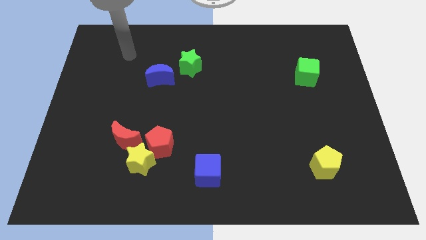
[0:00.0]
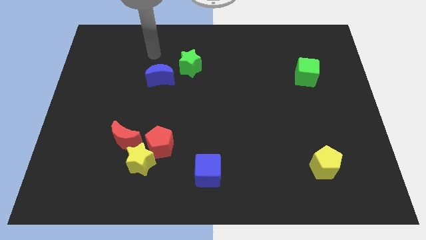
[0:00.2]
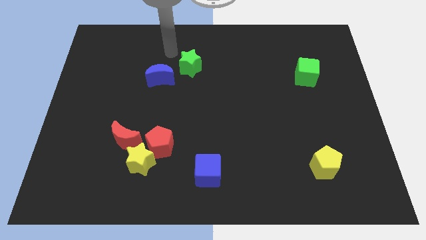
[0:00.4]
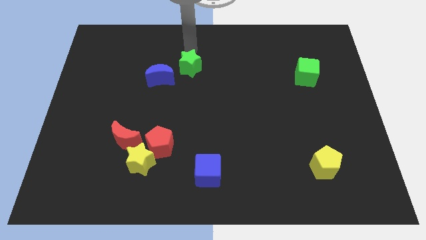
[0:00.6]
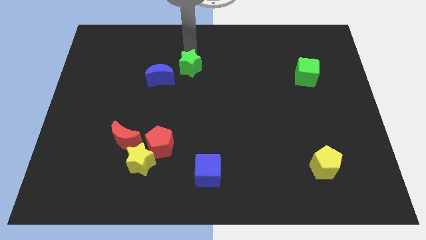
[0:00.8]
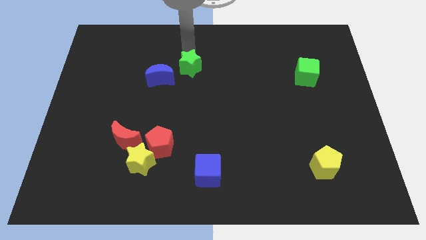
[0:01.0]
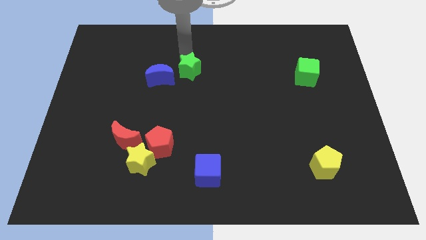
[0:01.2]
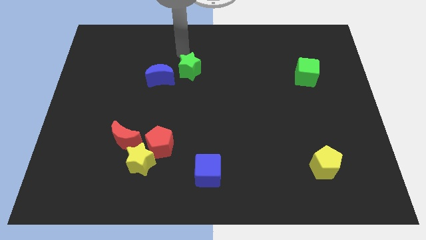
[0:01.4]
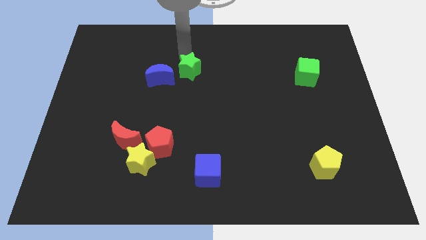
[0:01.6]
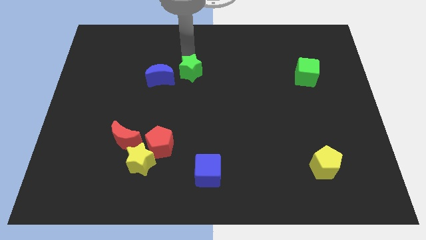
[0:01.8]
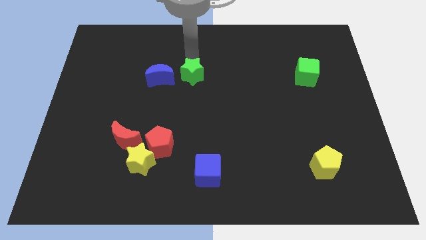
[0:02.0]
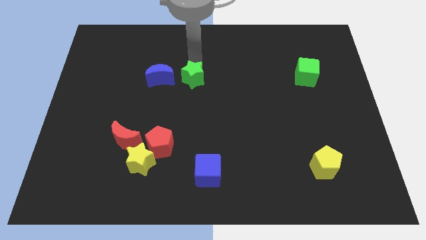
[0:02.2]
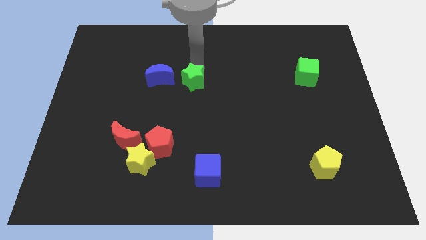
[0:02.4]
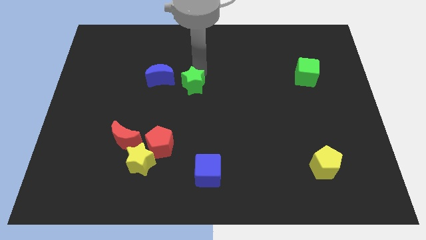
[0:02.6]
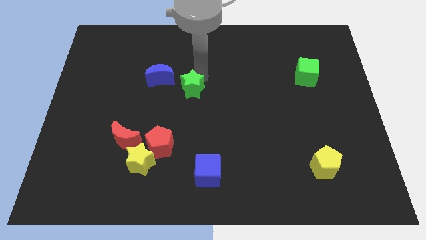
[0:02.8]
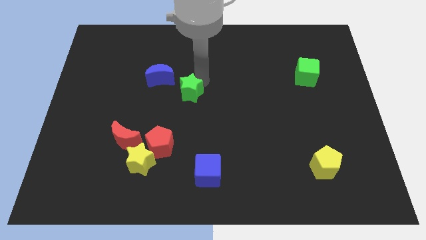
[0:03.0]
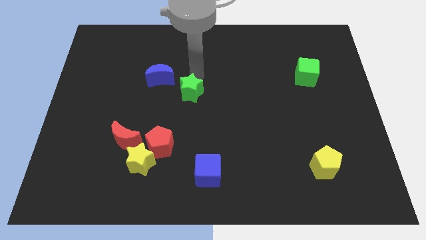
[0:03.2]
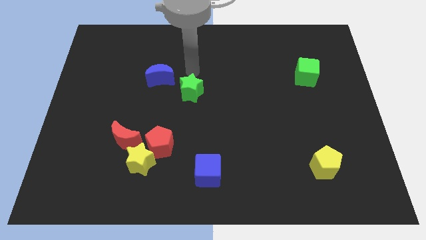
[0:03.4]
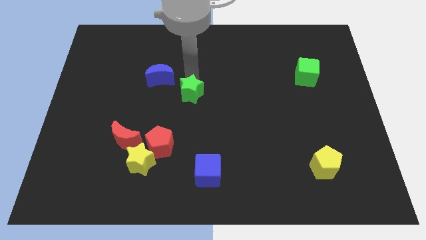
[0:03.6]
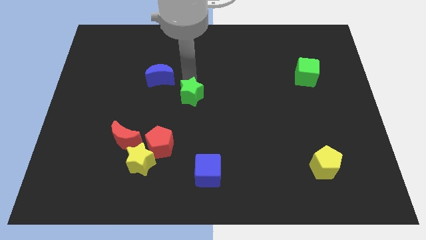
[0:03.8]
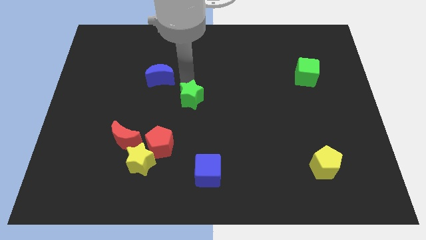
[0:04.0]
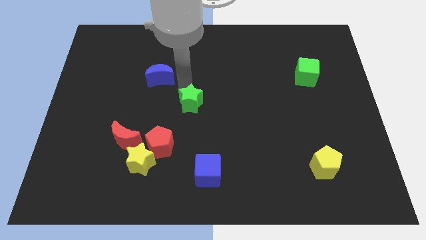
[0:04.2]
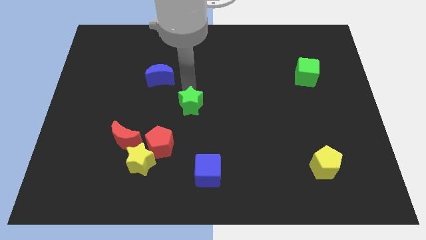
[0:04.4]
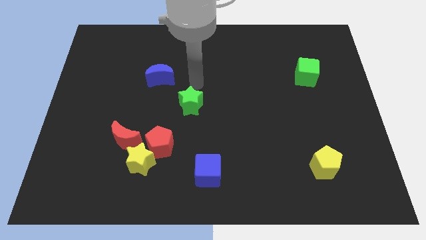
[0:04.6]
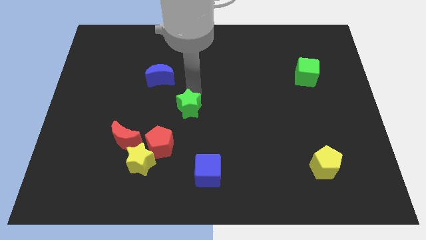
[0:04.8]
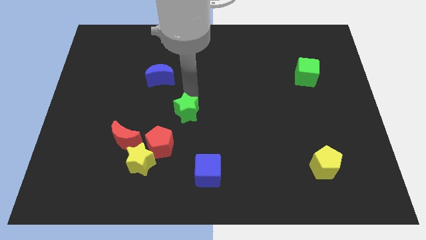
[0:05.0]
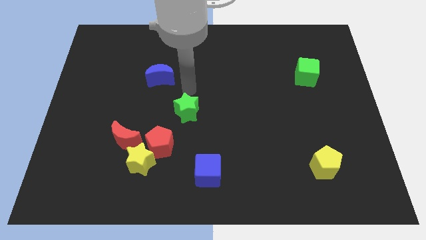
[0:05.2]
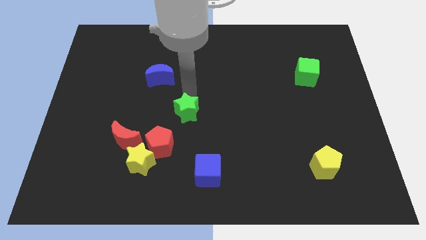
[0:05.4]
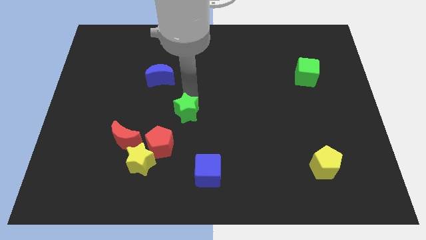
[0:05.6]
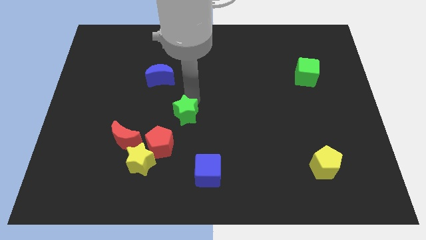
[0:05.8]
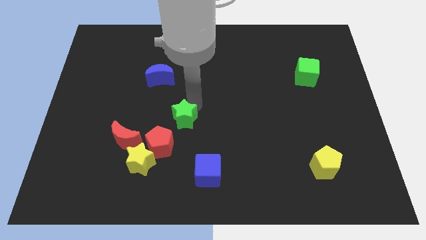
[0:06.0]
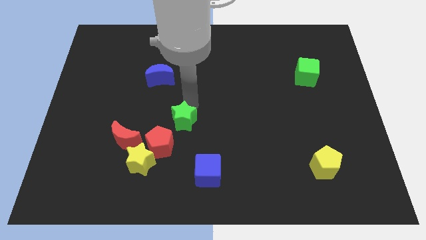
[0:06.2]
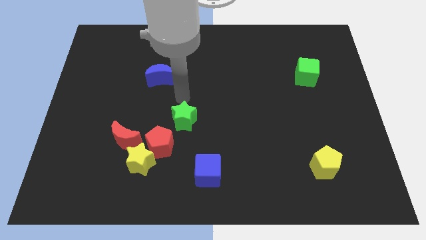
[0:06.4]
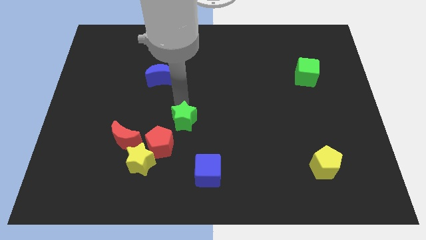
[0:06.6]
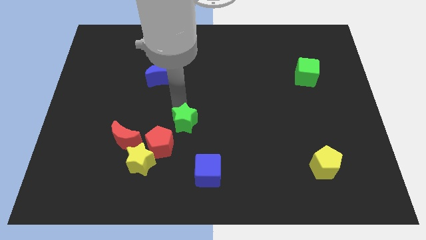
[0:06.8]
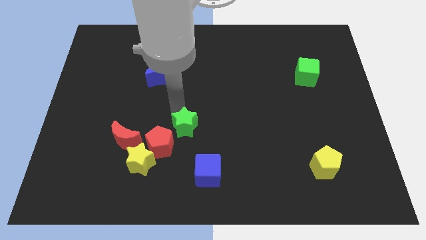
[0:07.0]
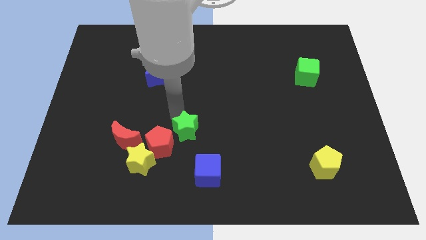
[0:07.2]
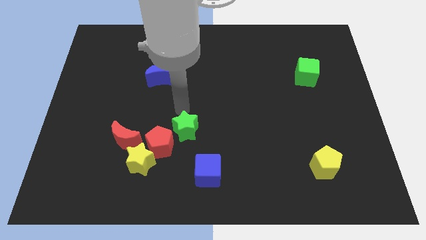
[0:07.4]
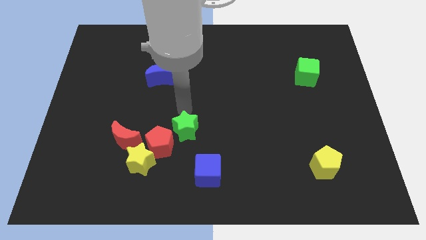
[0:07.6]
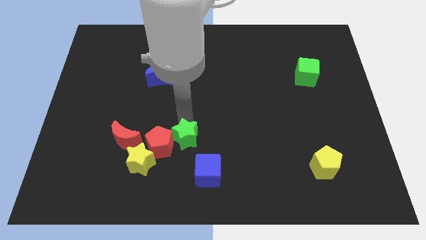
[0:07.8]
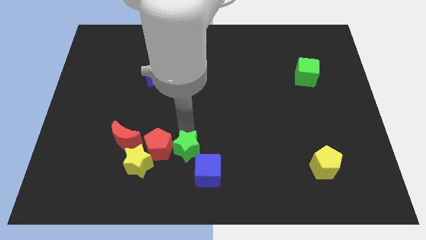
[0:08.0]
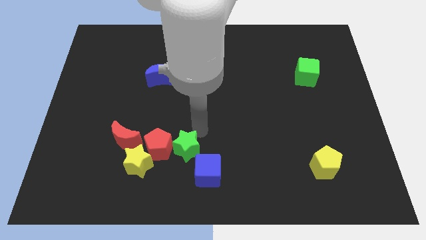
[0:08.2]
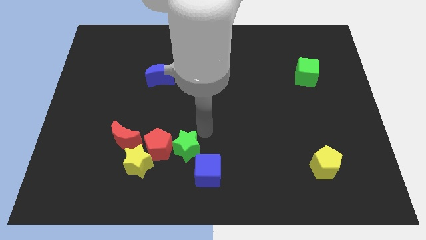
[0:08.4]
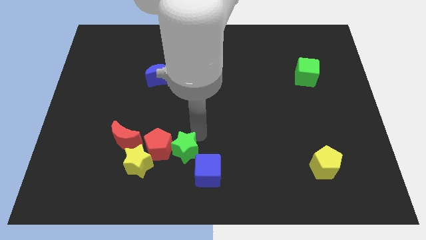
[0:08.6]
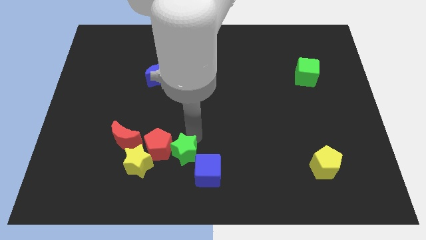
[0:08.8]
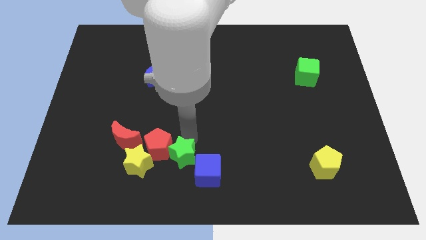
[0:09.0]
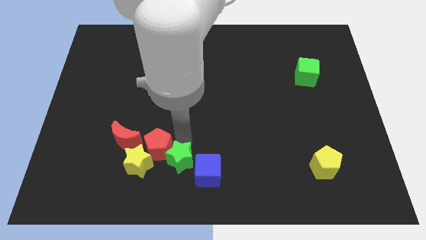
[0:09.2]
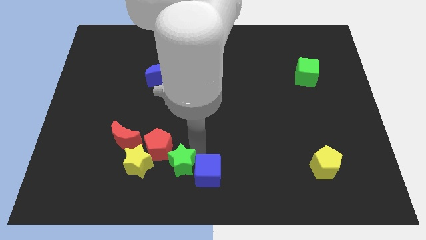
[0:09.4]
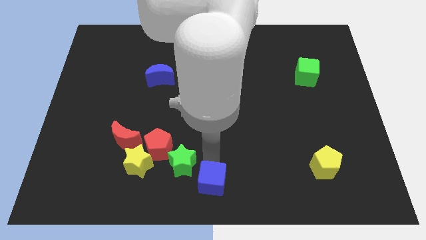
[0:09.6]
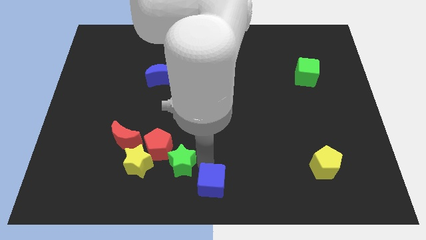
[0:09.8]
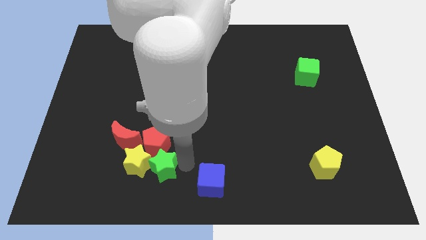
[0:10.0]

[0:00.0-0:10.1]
slide the green star towards the yellow star

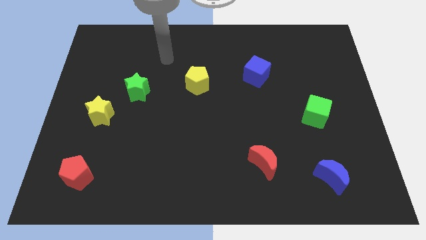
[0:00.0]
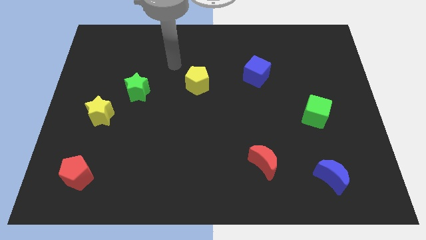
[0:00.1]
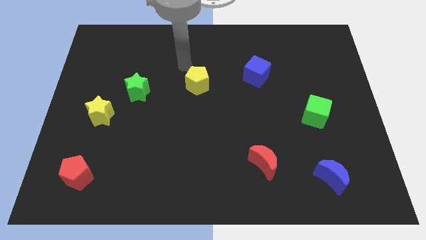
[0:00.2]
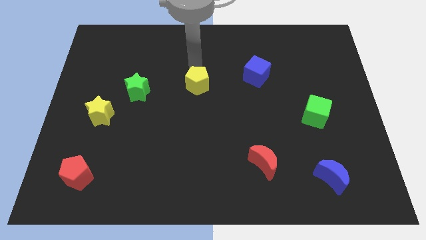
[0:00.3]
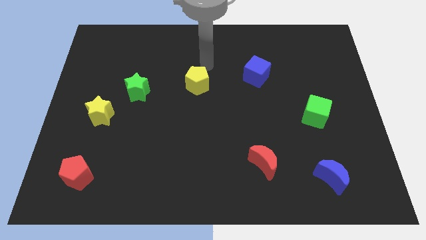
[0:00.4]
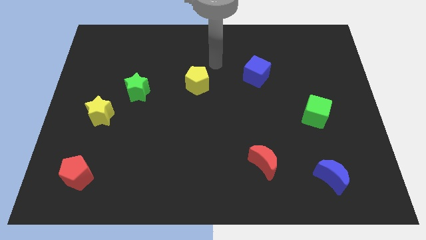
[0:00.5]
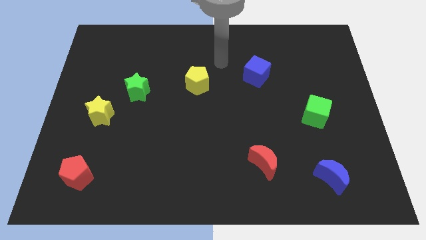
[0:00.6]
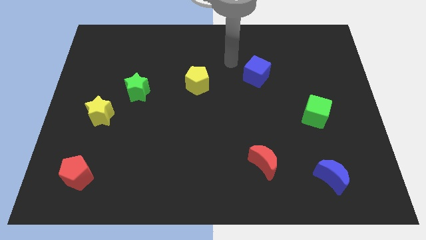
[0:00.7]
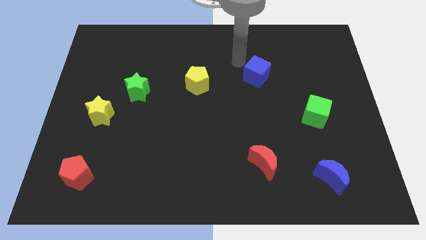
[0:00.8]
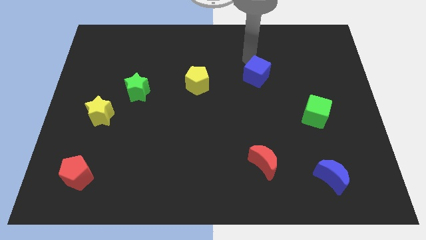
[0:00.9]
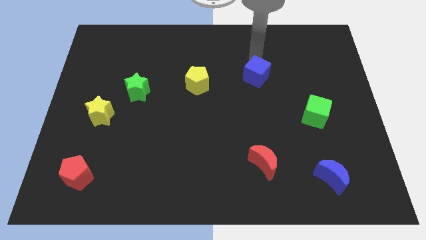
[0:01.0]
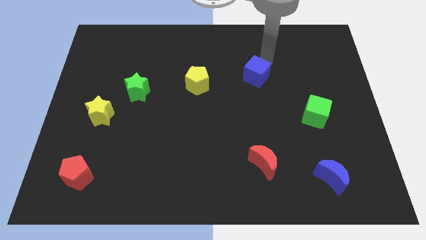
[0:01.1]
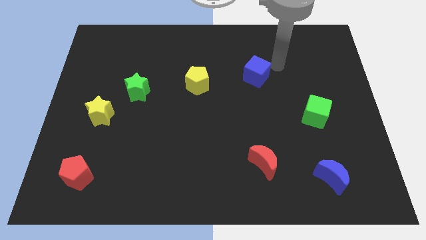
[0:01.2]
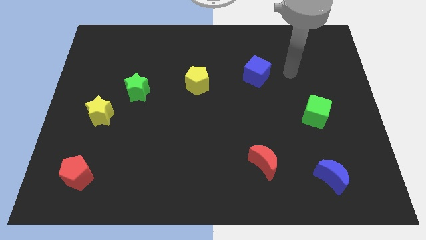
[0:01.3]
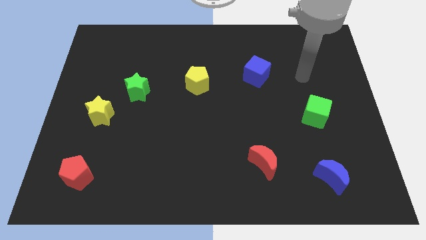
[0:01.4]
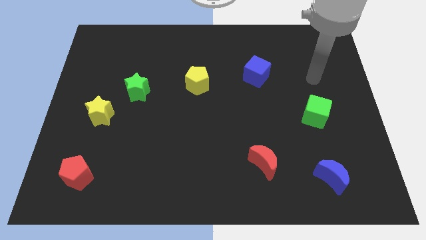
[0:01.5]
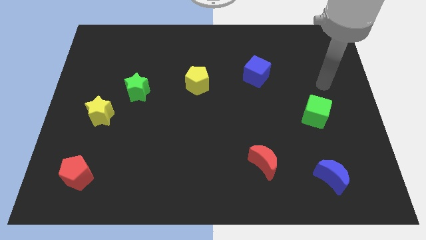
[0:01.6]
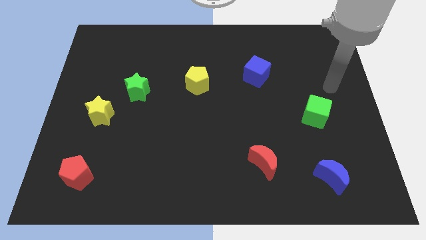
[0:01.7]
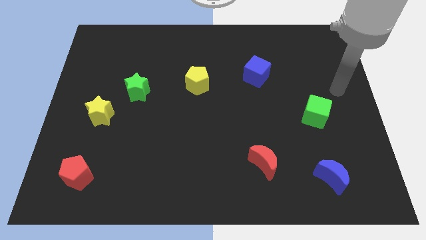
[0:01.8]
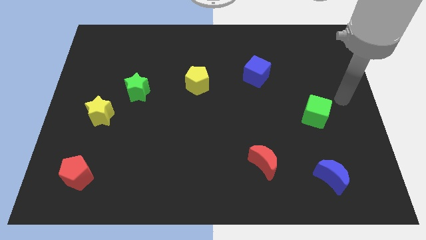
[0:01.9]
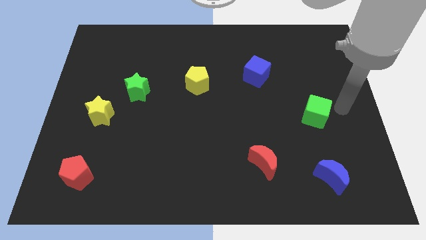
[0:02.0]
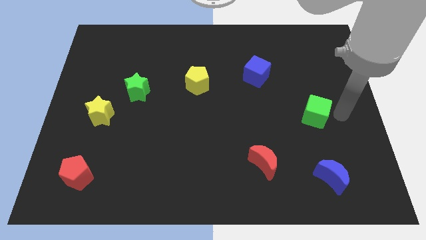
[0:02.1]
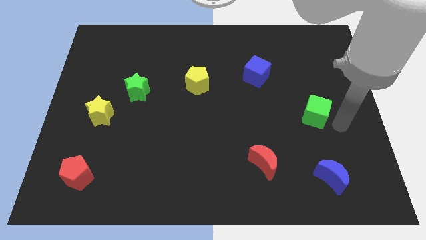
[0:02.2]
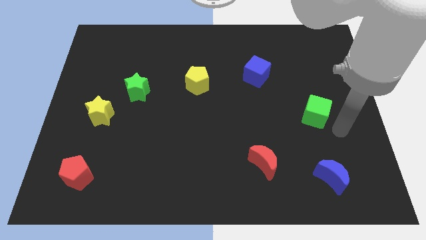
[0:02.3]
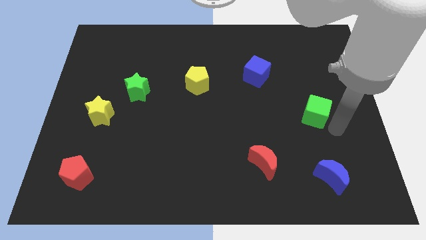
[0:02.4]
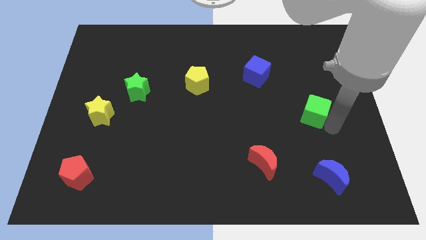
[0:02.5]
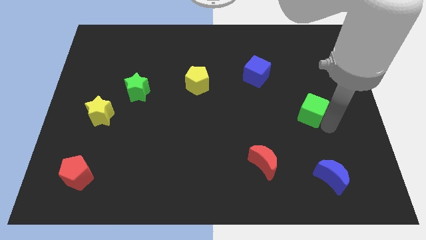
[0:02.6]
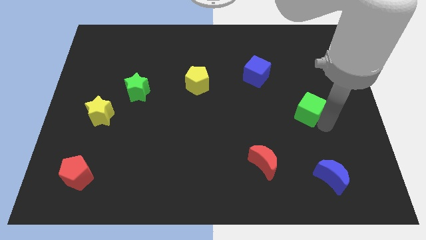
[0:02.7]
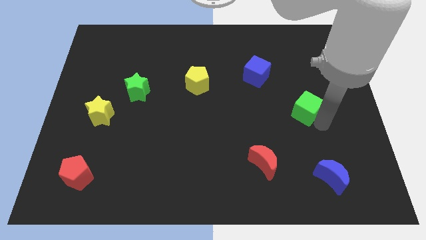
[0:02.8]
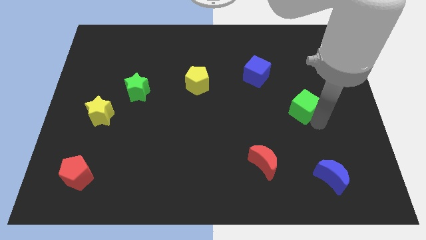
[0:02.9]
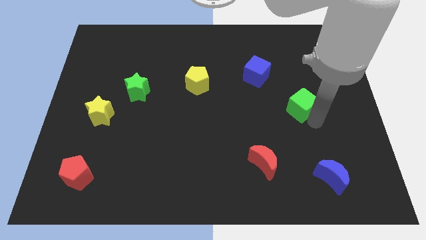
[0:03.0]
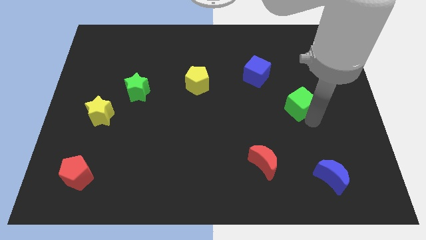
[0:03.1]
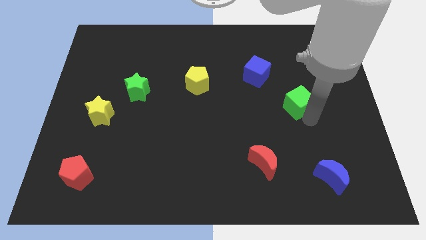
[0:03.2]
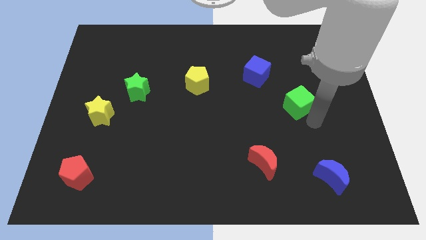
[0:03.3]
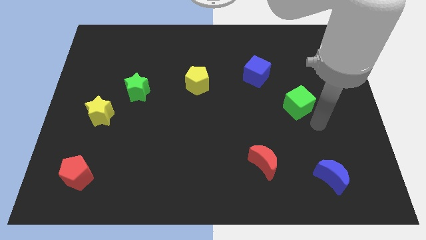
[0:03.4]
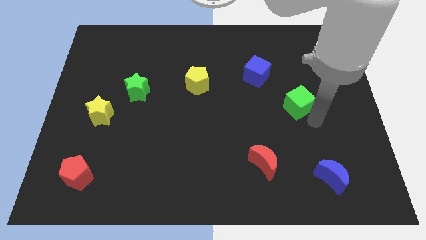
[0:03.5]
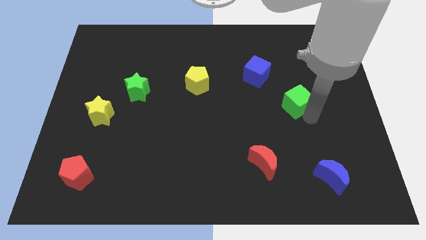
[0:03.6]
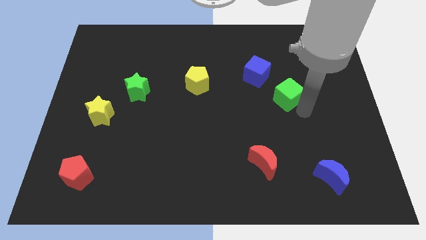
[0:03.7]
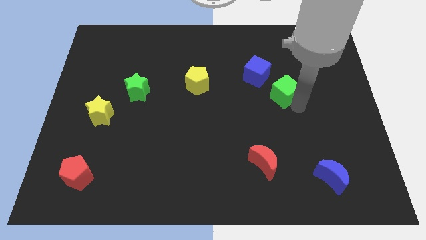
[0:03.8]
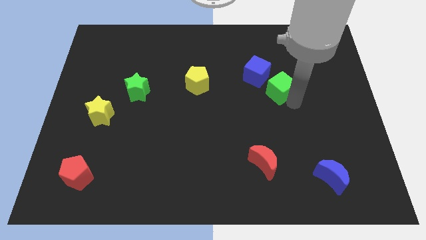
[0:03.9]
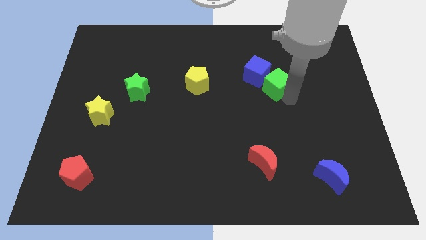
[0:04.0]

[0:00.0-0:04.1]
slide the green cube next to the blue cube
